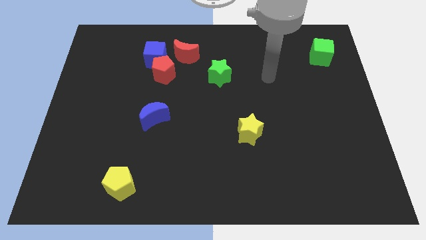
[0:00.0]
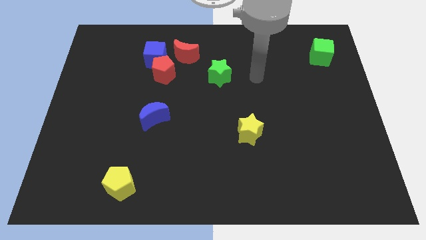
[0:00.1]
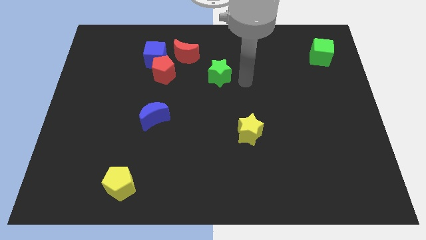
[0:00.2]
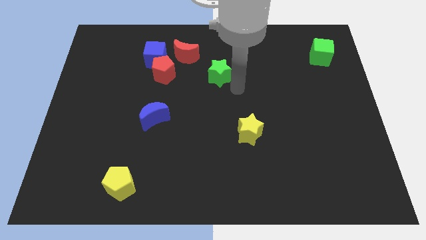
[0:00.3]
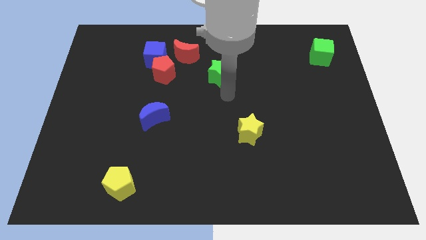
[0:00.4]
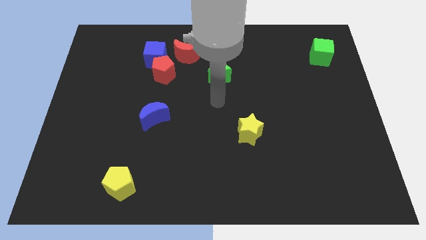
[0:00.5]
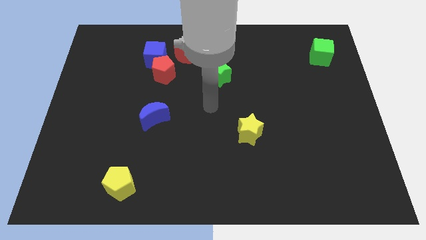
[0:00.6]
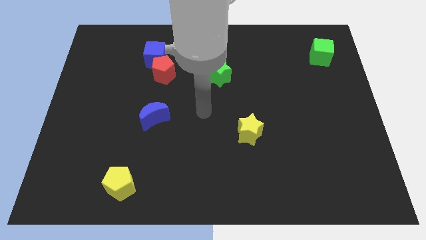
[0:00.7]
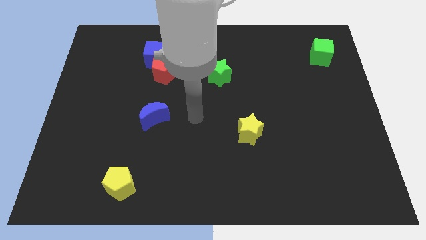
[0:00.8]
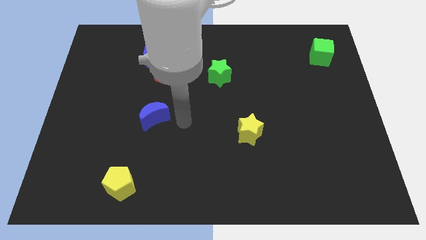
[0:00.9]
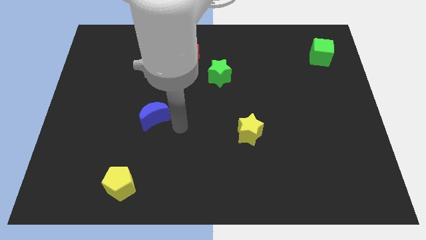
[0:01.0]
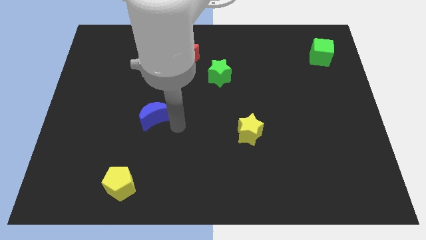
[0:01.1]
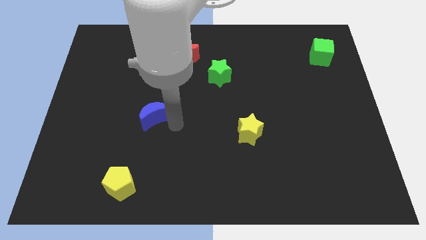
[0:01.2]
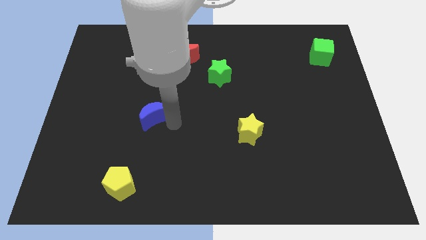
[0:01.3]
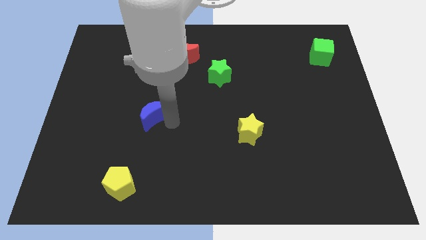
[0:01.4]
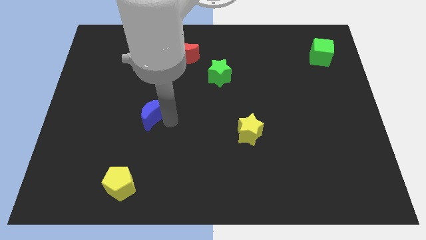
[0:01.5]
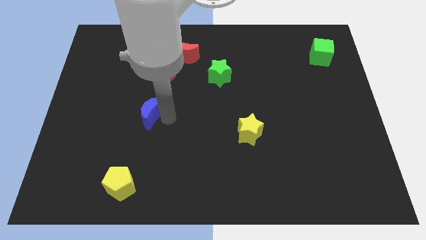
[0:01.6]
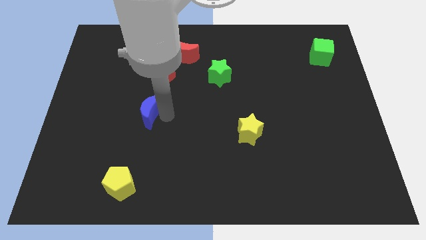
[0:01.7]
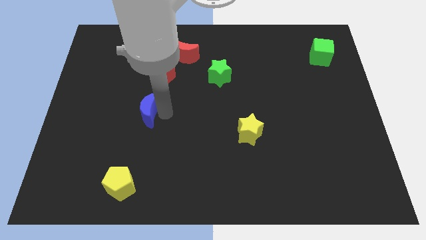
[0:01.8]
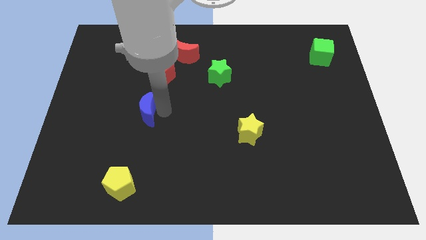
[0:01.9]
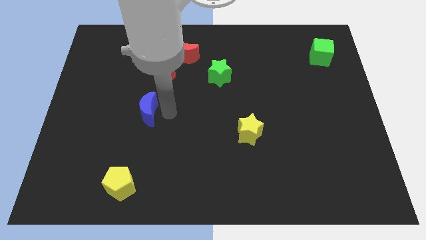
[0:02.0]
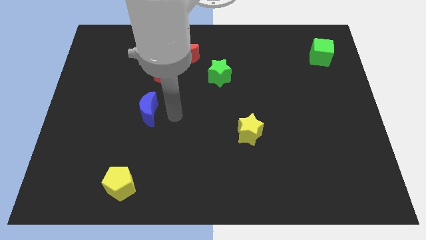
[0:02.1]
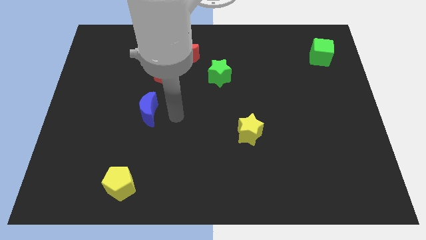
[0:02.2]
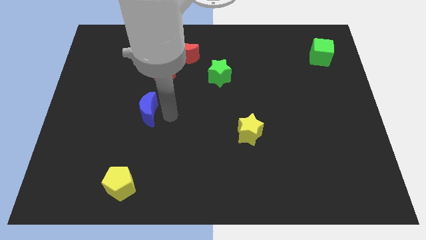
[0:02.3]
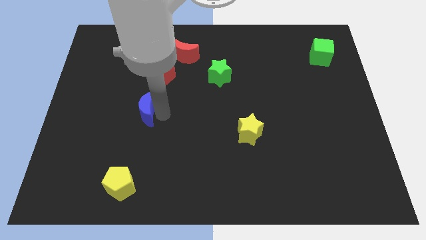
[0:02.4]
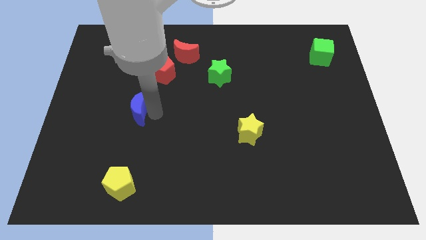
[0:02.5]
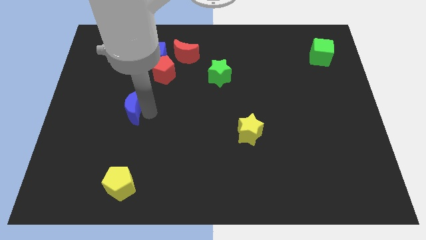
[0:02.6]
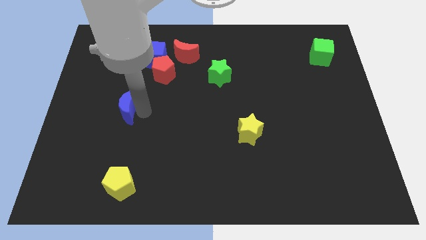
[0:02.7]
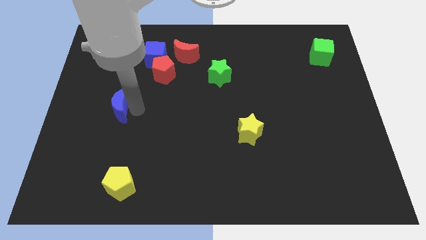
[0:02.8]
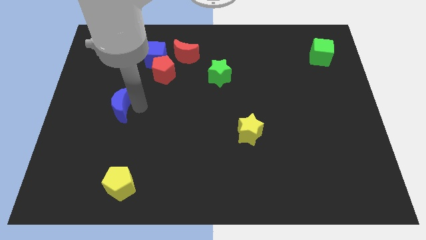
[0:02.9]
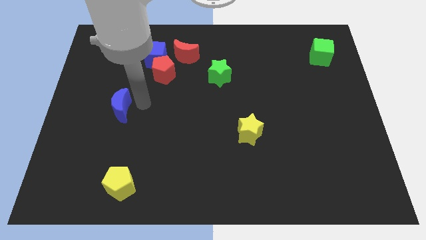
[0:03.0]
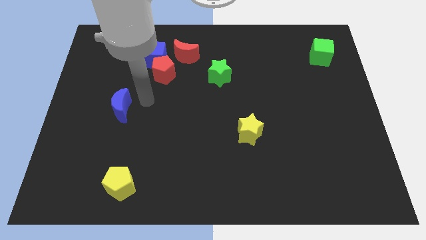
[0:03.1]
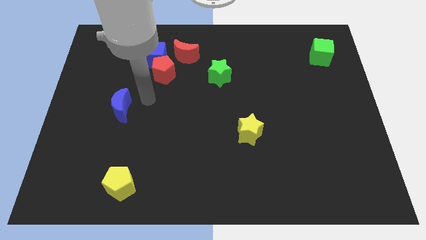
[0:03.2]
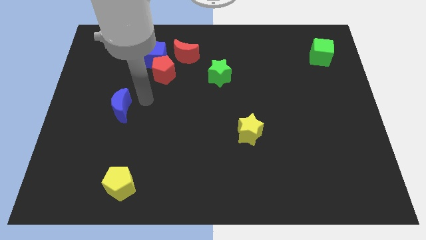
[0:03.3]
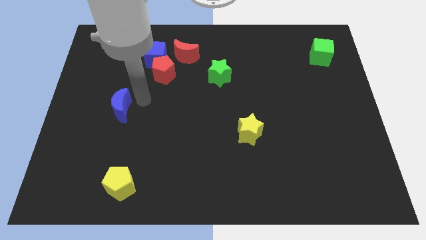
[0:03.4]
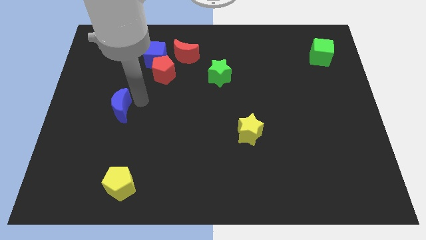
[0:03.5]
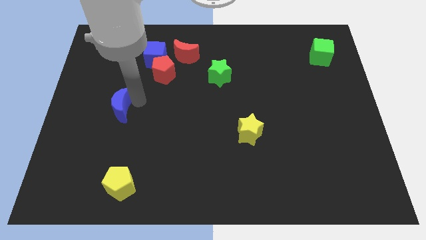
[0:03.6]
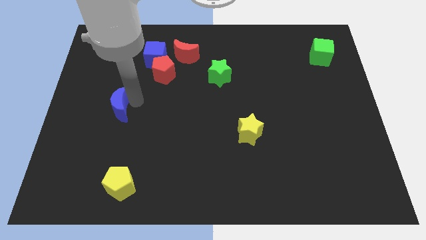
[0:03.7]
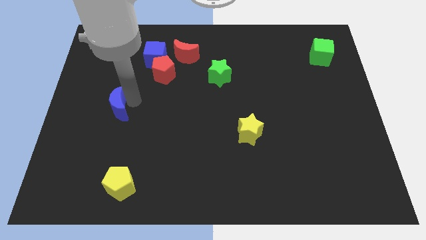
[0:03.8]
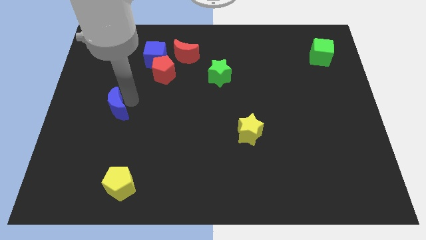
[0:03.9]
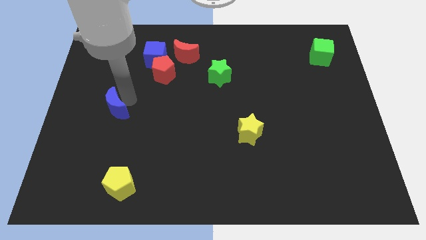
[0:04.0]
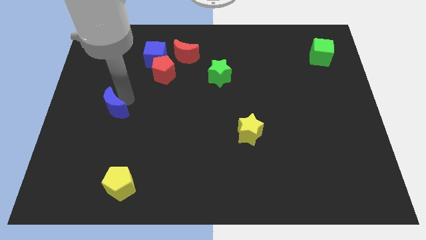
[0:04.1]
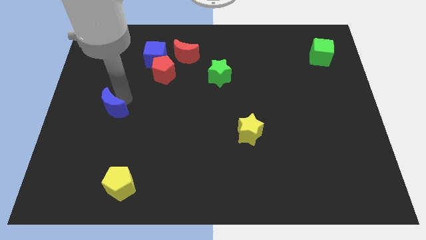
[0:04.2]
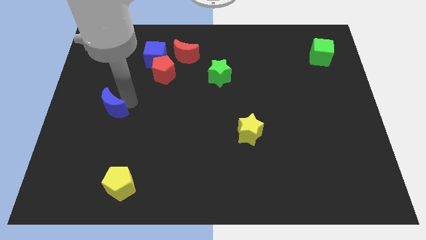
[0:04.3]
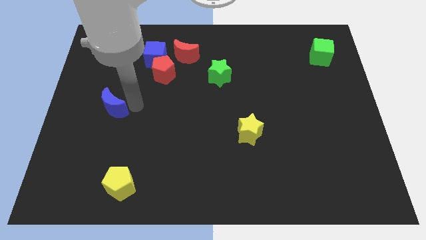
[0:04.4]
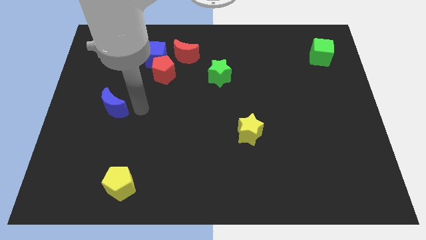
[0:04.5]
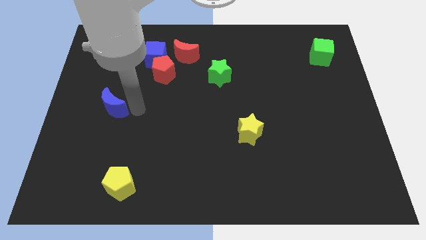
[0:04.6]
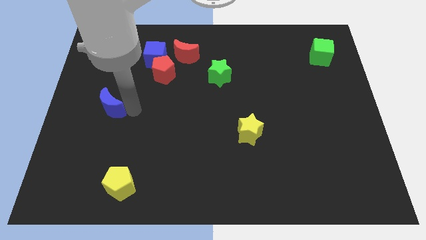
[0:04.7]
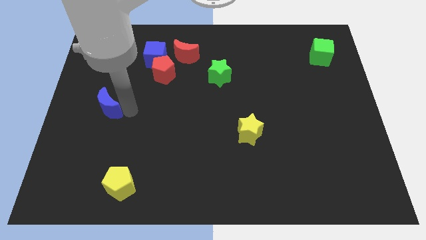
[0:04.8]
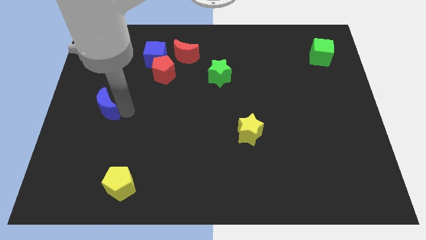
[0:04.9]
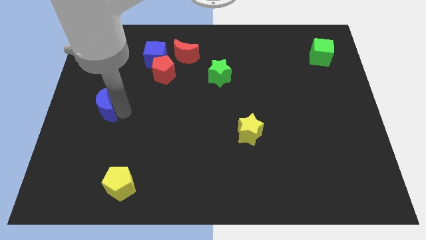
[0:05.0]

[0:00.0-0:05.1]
put the blue moon to the left side
